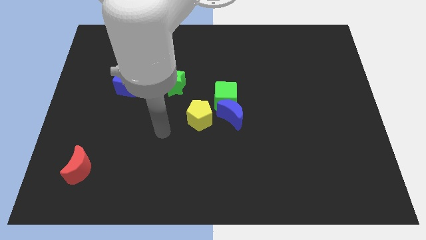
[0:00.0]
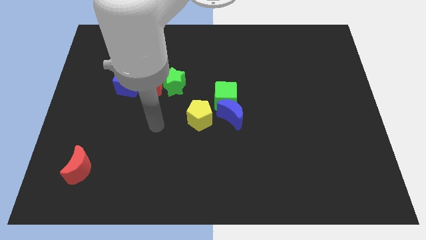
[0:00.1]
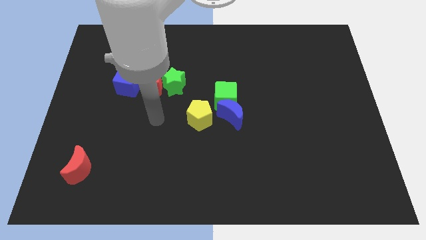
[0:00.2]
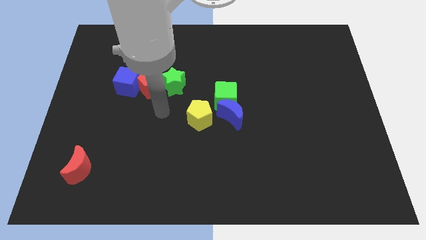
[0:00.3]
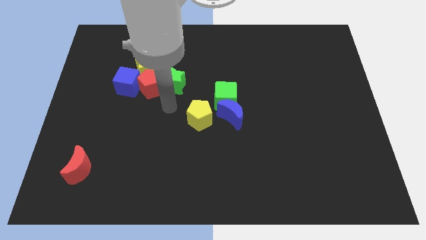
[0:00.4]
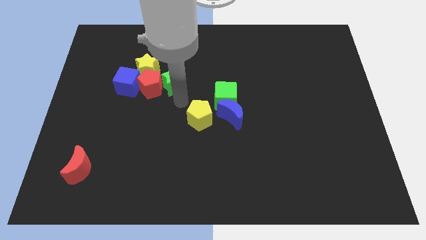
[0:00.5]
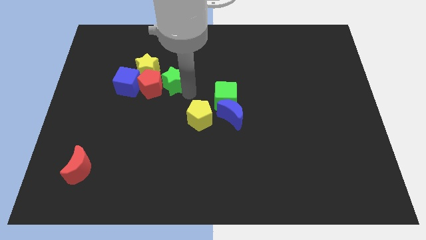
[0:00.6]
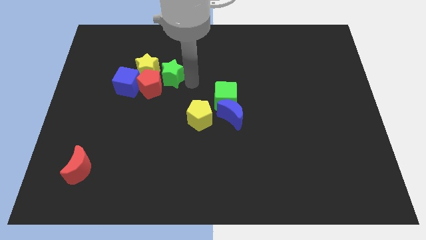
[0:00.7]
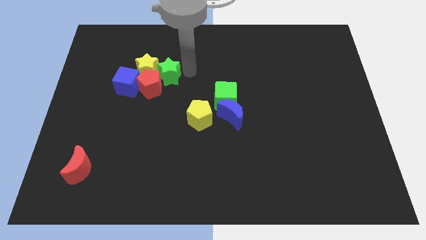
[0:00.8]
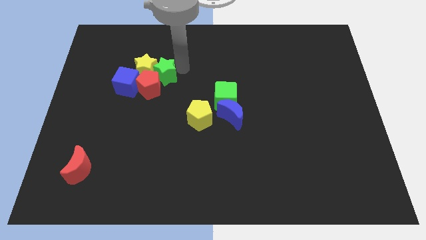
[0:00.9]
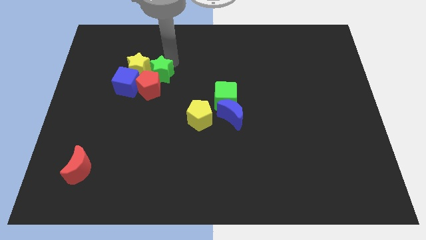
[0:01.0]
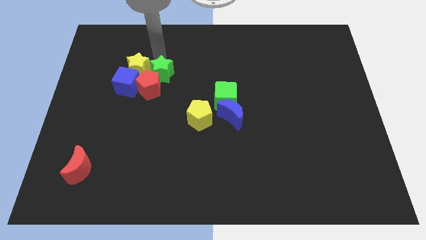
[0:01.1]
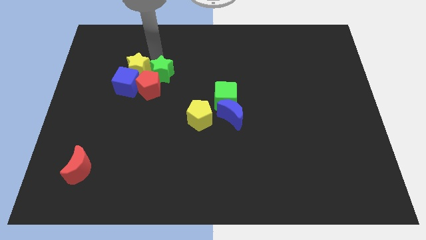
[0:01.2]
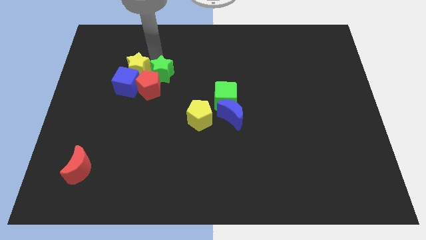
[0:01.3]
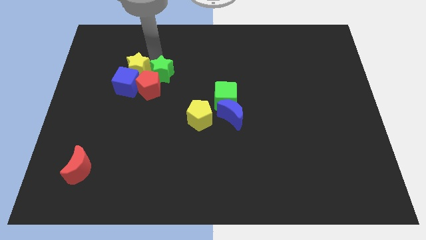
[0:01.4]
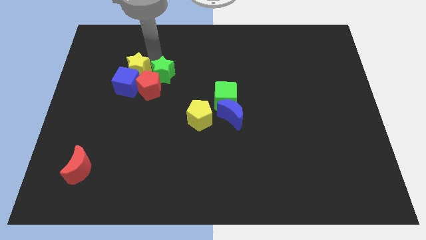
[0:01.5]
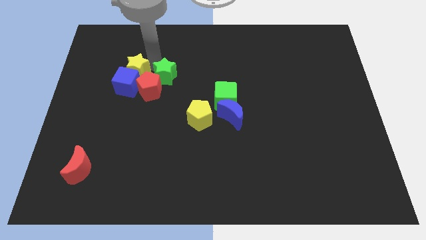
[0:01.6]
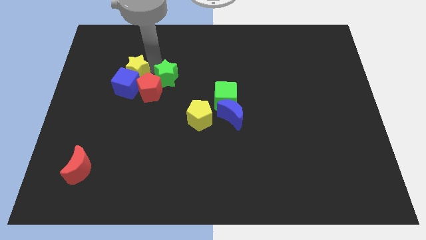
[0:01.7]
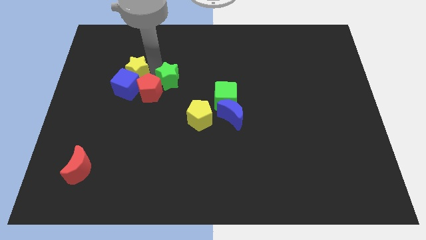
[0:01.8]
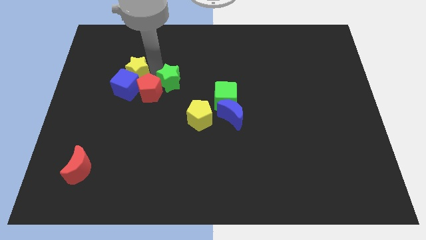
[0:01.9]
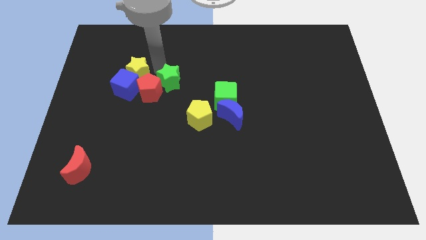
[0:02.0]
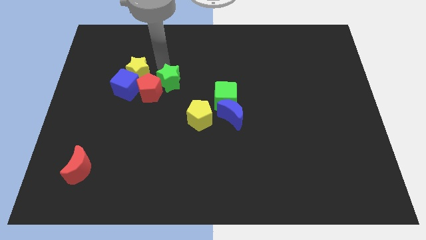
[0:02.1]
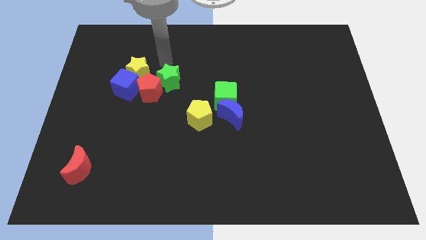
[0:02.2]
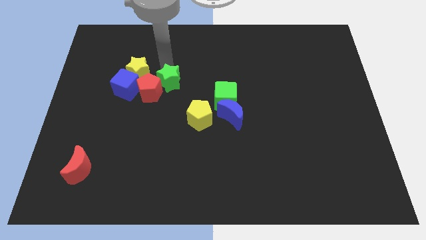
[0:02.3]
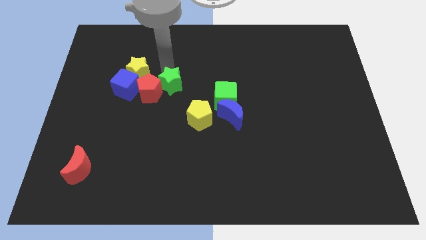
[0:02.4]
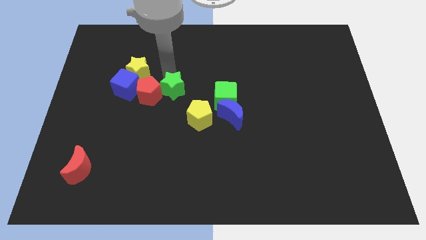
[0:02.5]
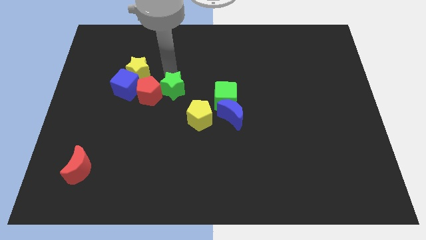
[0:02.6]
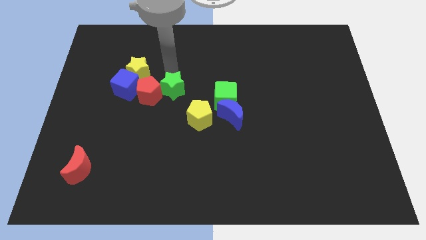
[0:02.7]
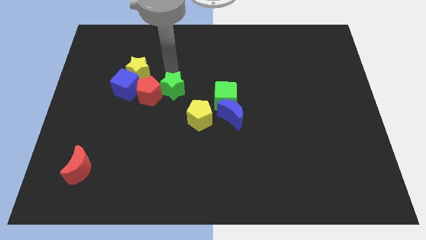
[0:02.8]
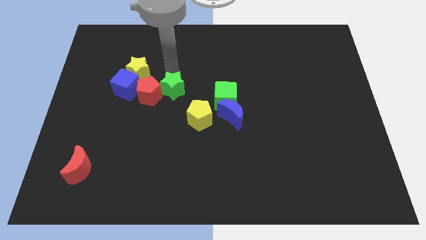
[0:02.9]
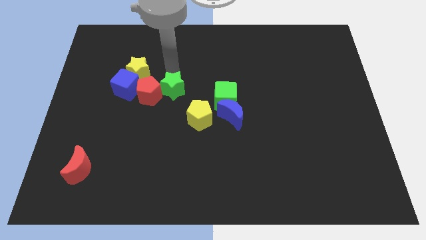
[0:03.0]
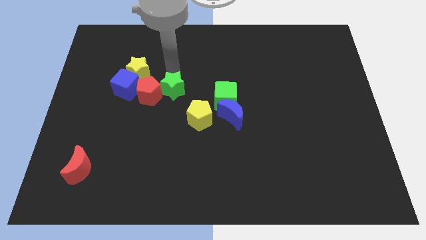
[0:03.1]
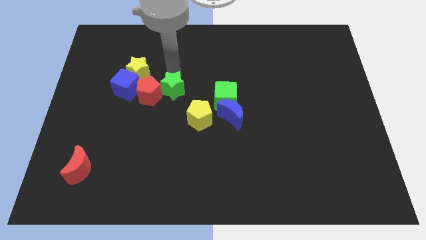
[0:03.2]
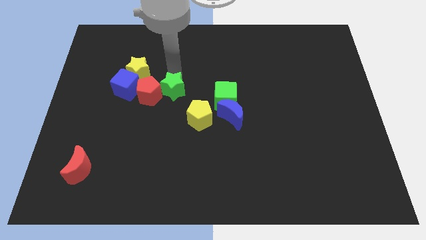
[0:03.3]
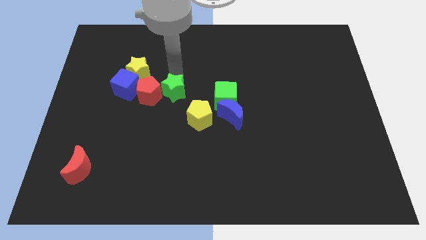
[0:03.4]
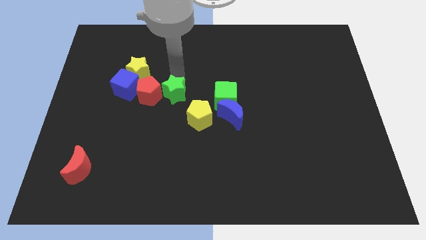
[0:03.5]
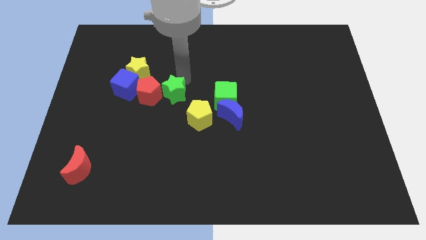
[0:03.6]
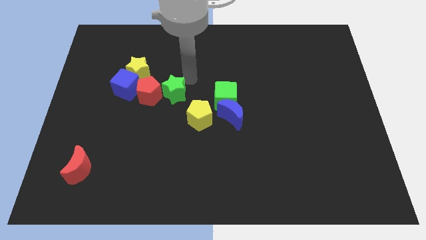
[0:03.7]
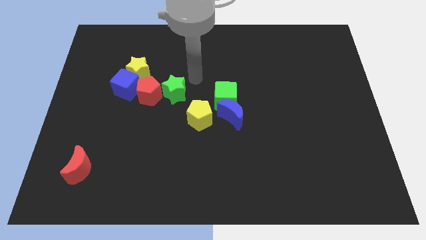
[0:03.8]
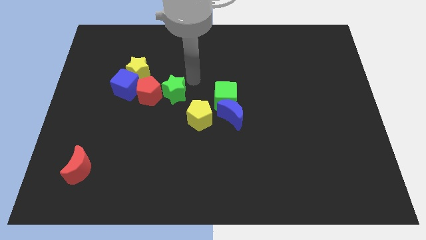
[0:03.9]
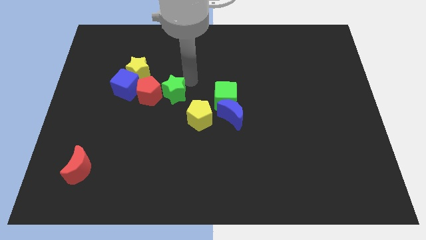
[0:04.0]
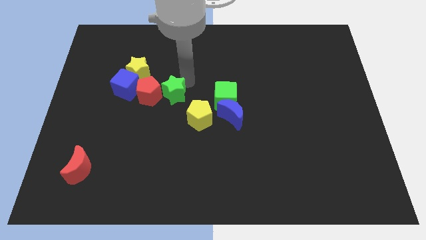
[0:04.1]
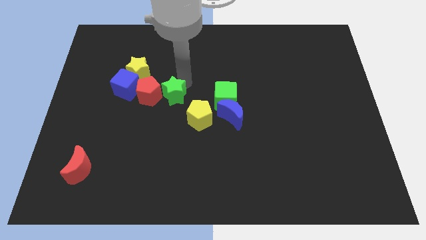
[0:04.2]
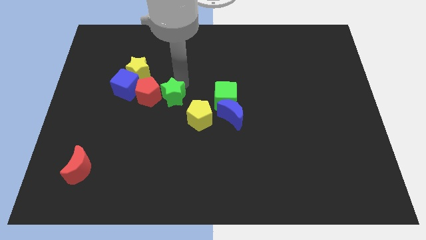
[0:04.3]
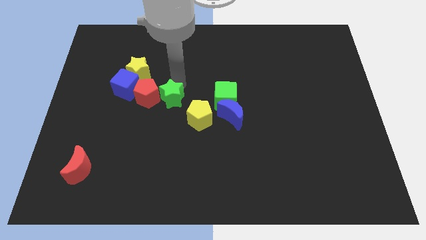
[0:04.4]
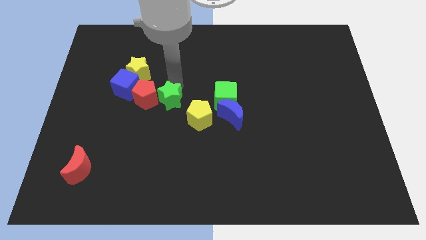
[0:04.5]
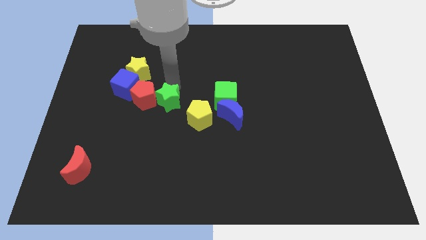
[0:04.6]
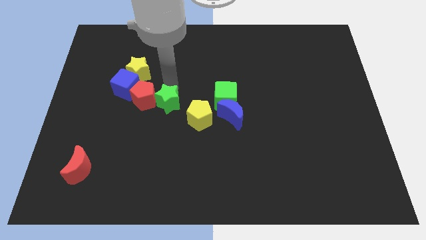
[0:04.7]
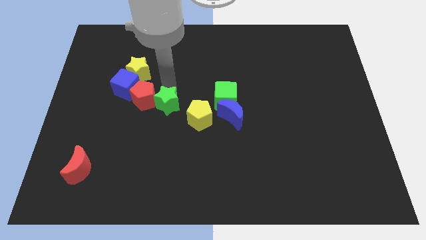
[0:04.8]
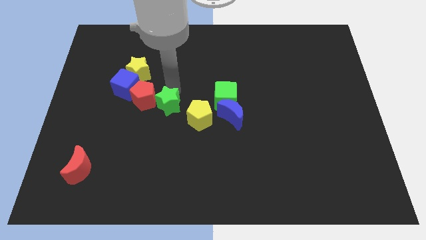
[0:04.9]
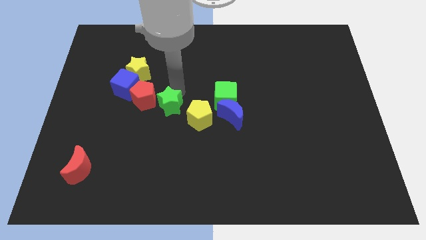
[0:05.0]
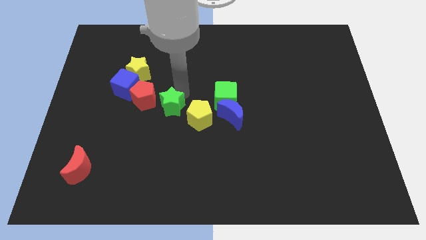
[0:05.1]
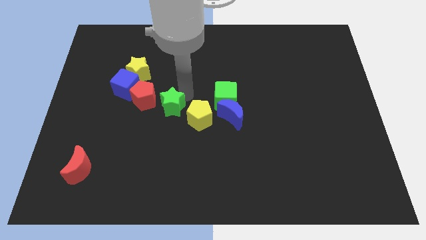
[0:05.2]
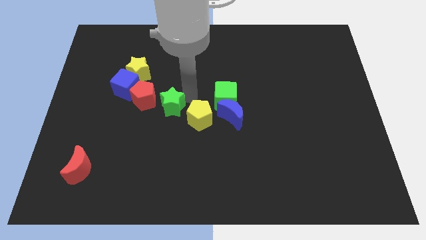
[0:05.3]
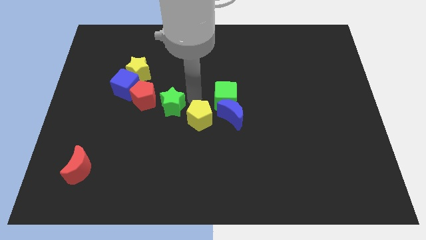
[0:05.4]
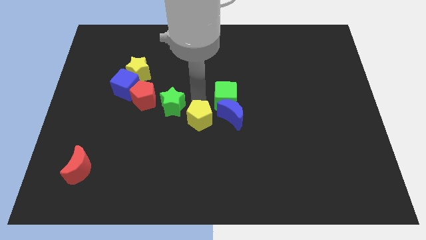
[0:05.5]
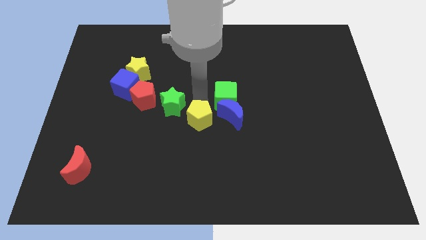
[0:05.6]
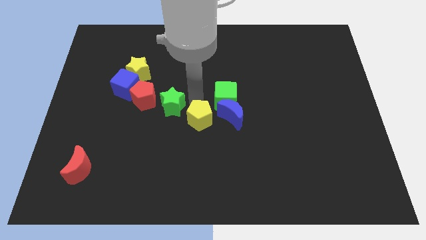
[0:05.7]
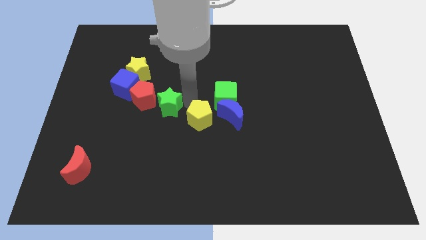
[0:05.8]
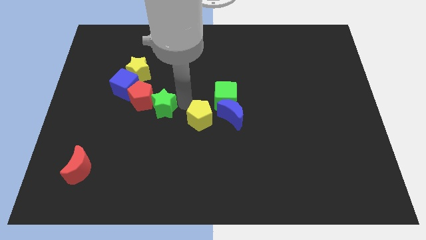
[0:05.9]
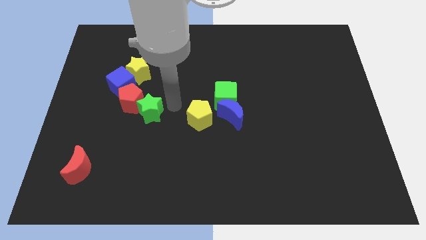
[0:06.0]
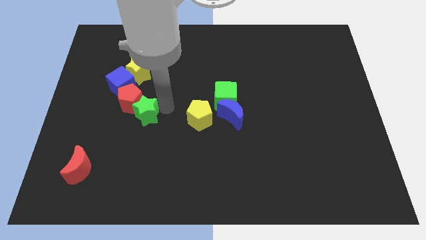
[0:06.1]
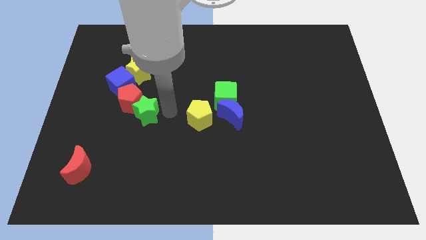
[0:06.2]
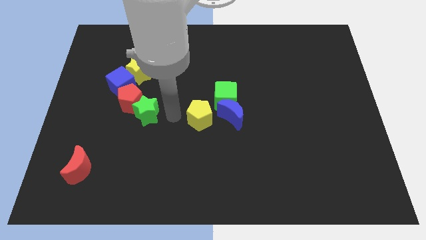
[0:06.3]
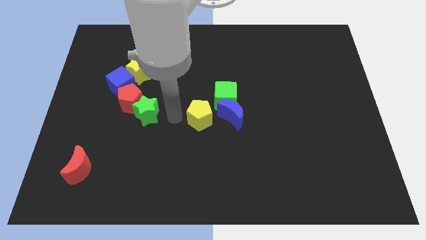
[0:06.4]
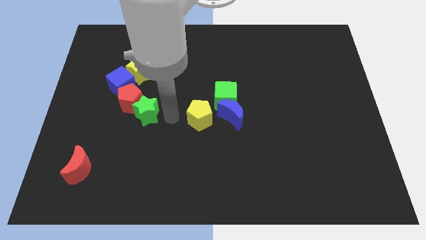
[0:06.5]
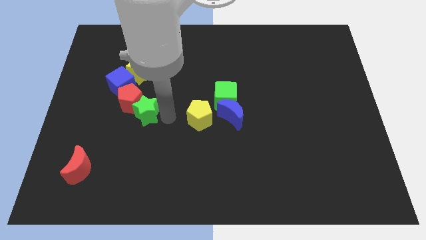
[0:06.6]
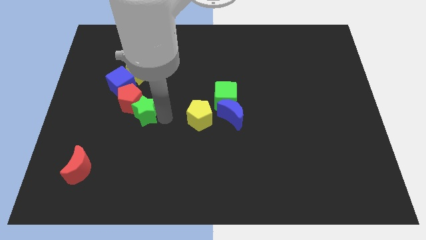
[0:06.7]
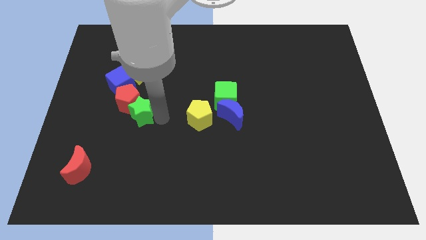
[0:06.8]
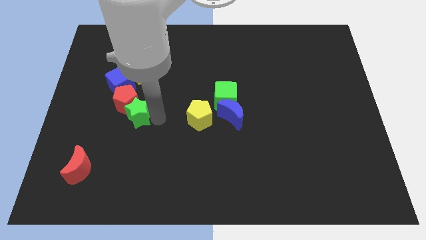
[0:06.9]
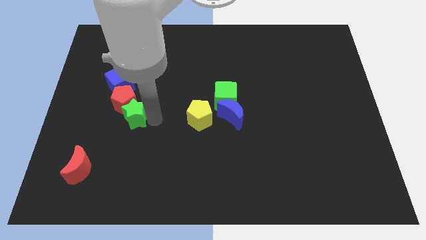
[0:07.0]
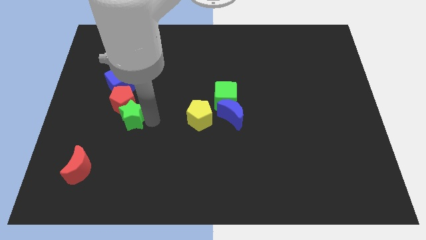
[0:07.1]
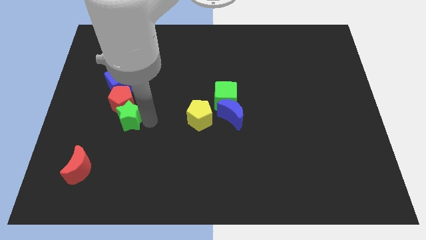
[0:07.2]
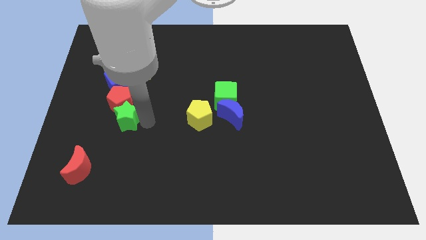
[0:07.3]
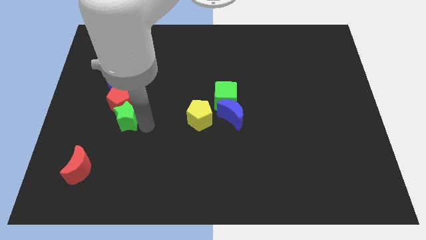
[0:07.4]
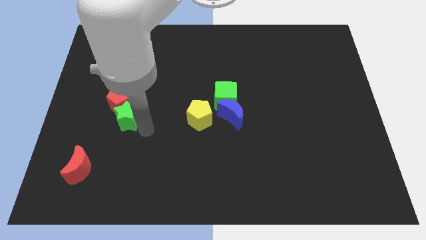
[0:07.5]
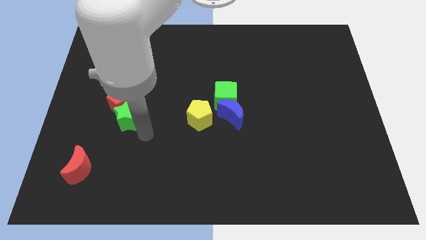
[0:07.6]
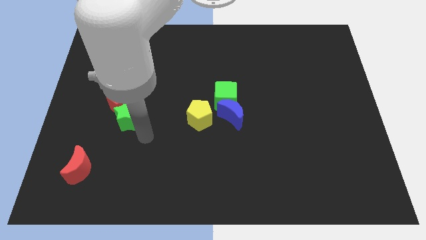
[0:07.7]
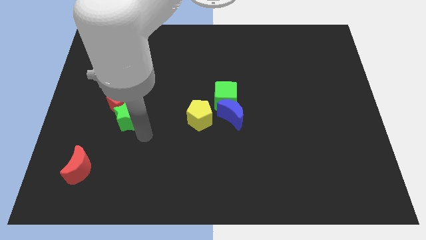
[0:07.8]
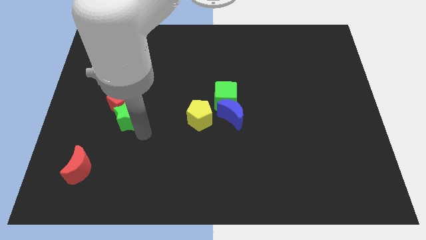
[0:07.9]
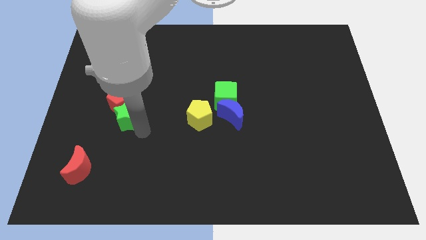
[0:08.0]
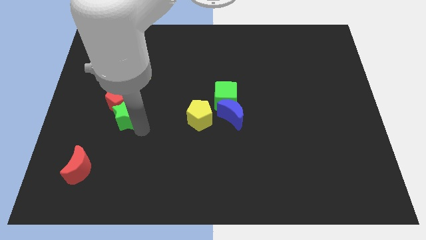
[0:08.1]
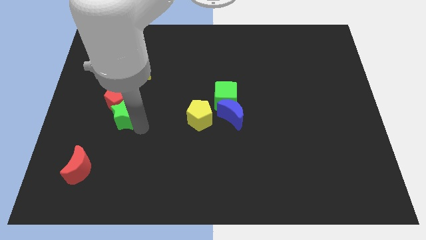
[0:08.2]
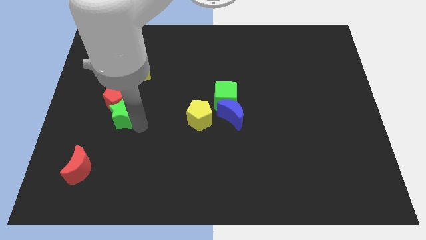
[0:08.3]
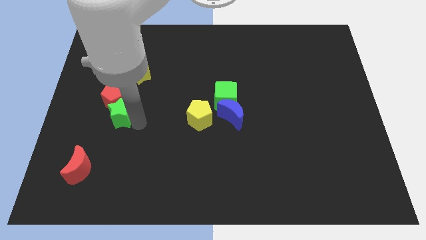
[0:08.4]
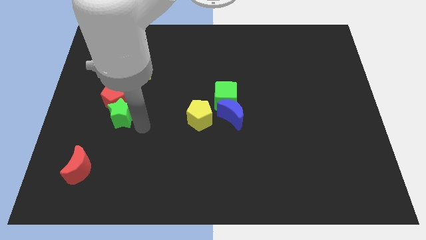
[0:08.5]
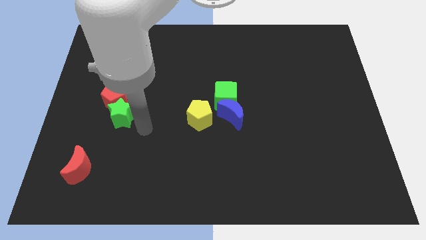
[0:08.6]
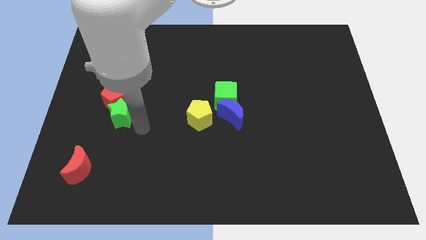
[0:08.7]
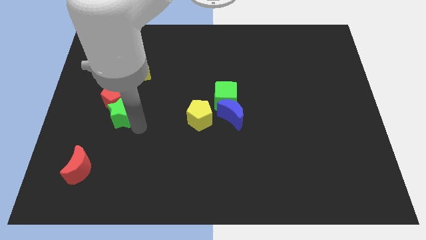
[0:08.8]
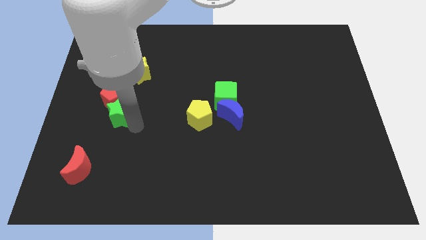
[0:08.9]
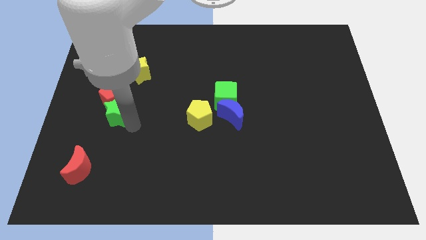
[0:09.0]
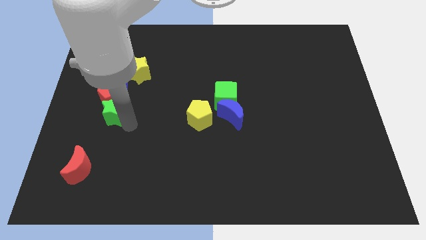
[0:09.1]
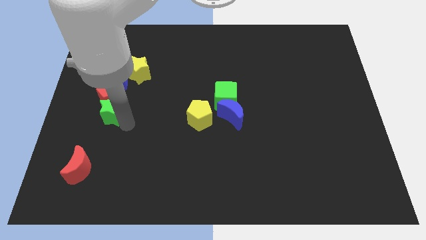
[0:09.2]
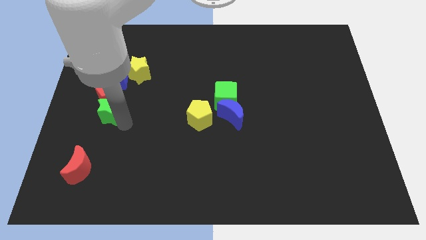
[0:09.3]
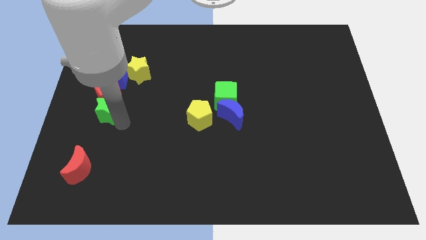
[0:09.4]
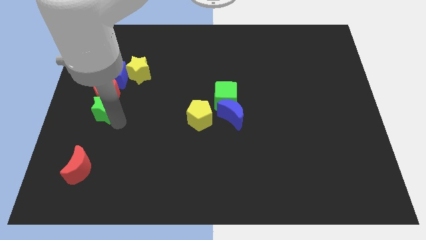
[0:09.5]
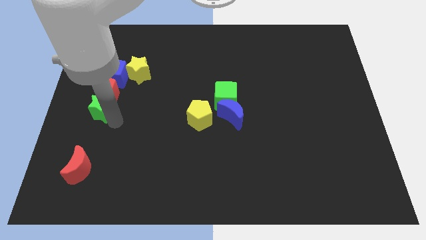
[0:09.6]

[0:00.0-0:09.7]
move the green star to the center left
